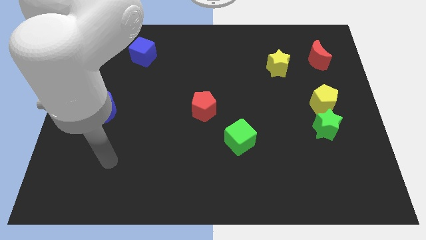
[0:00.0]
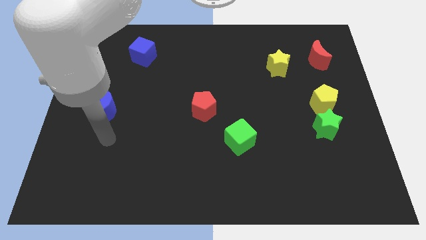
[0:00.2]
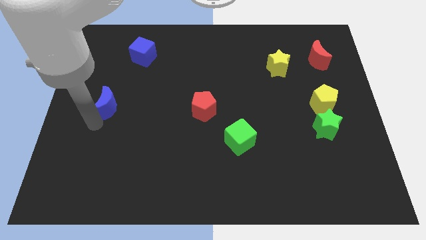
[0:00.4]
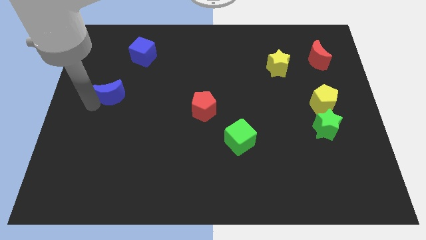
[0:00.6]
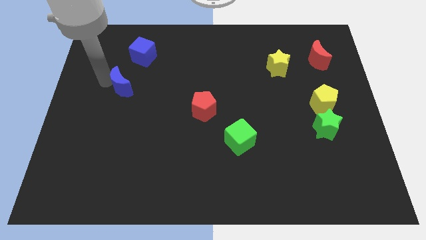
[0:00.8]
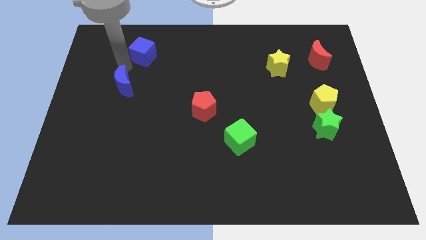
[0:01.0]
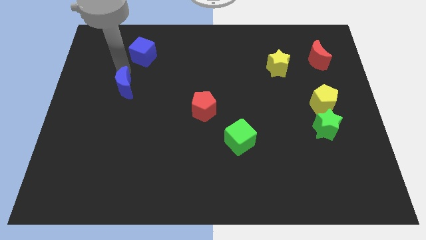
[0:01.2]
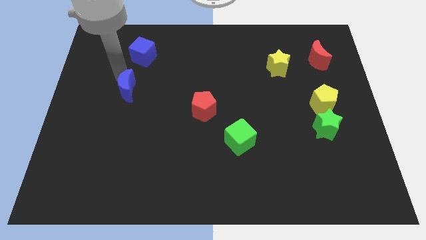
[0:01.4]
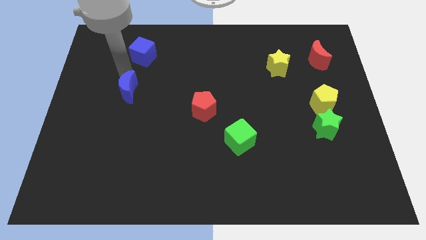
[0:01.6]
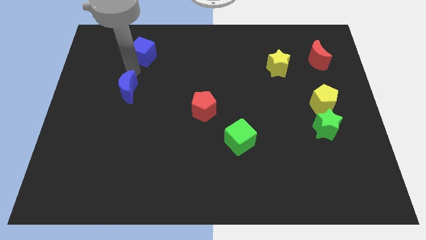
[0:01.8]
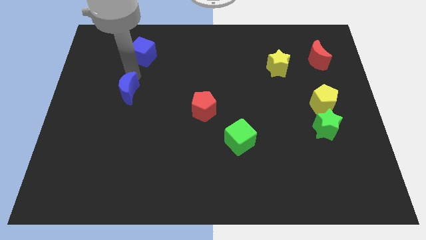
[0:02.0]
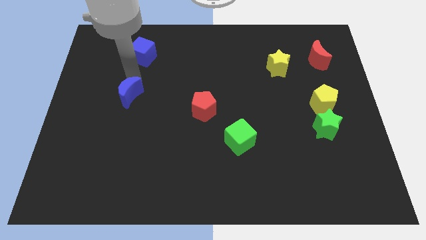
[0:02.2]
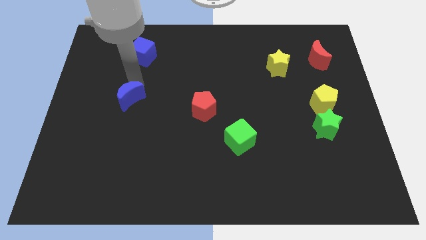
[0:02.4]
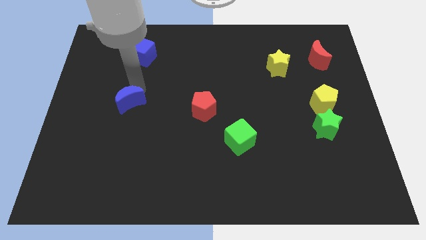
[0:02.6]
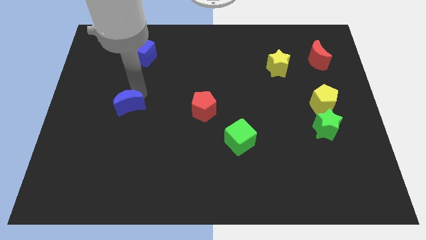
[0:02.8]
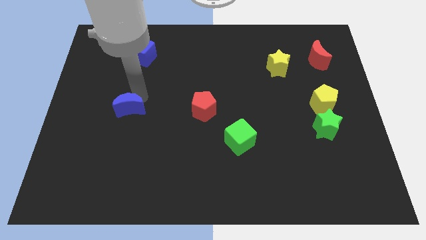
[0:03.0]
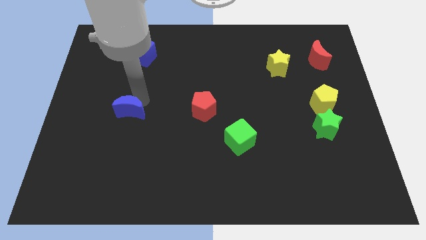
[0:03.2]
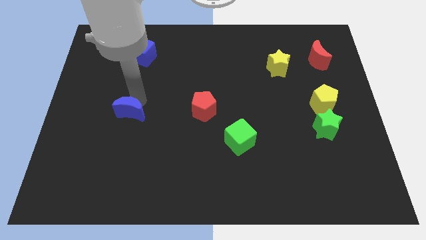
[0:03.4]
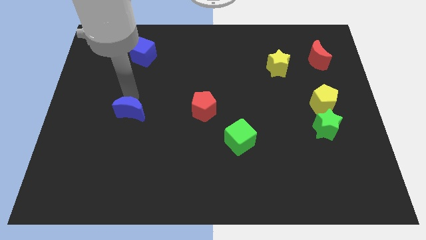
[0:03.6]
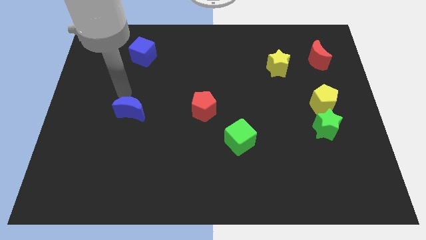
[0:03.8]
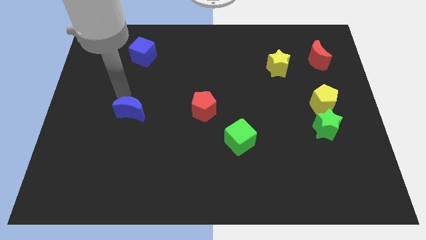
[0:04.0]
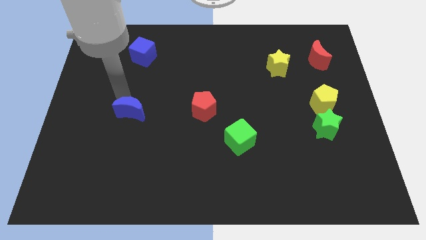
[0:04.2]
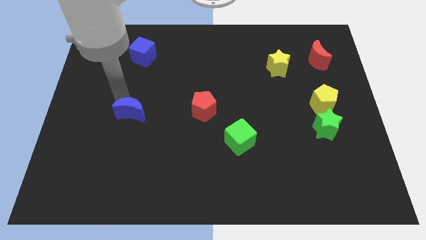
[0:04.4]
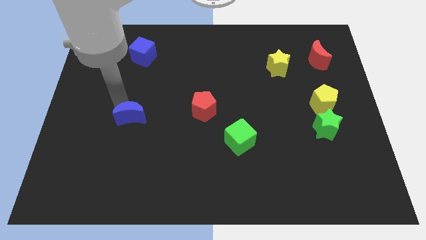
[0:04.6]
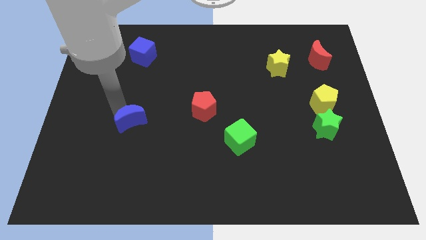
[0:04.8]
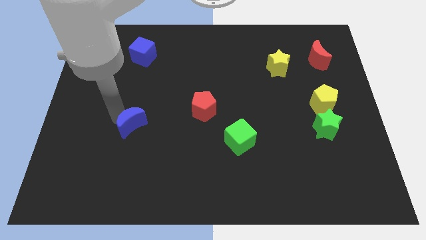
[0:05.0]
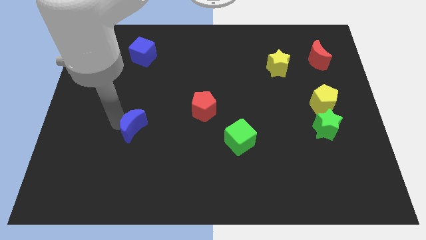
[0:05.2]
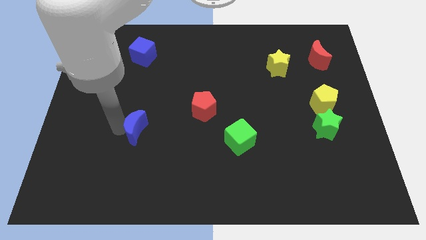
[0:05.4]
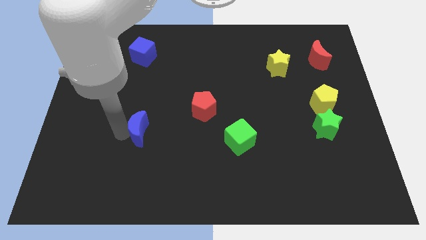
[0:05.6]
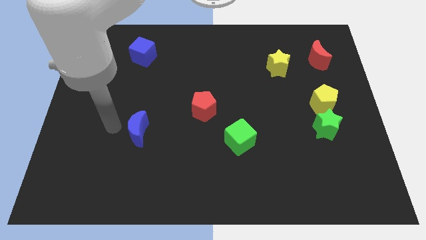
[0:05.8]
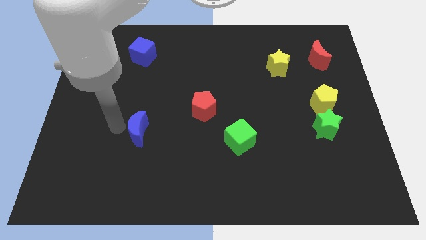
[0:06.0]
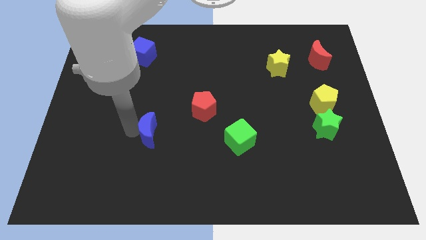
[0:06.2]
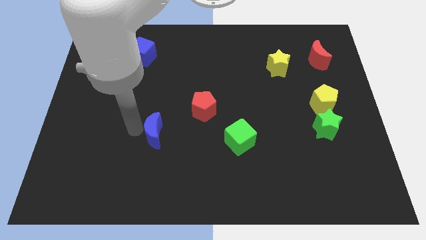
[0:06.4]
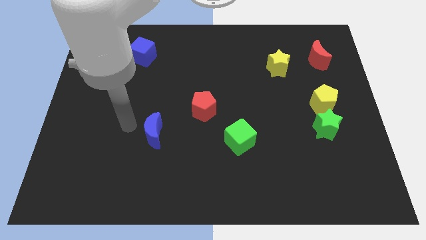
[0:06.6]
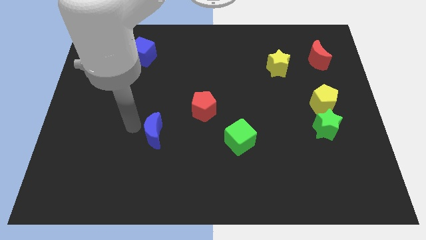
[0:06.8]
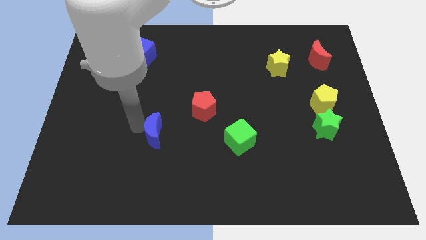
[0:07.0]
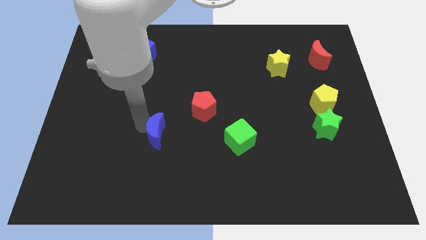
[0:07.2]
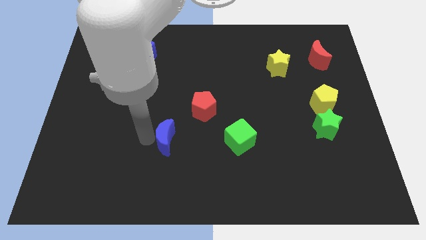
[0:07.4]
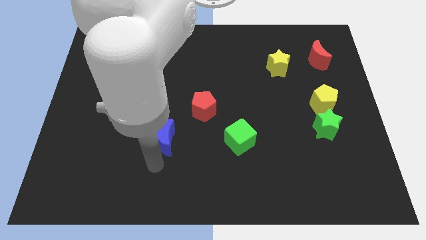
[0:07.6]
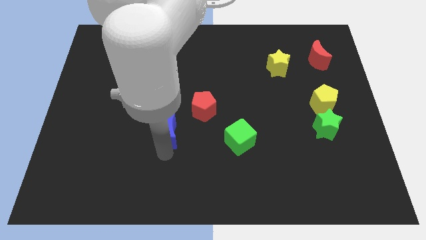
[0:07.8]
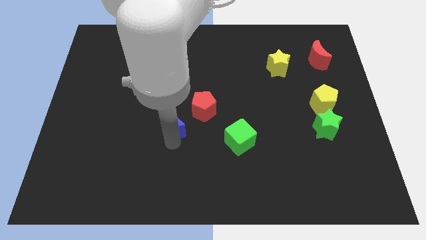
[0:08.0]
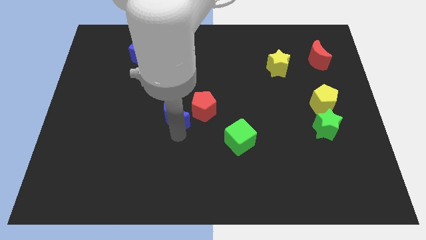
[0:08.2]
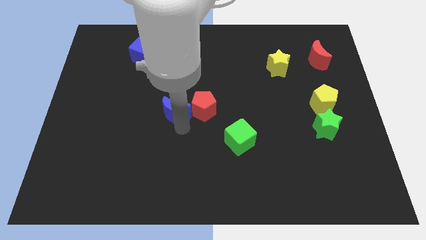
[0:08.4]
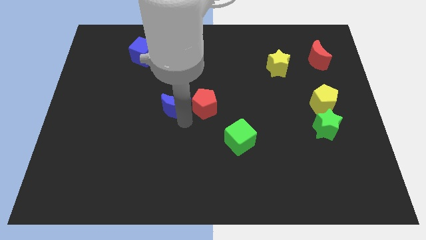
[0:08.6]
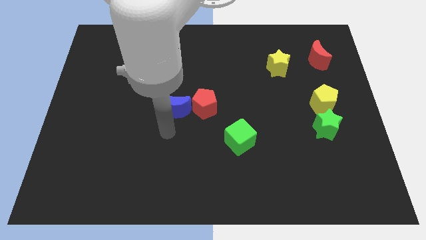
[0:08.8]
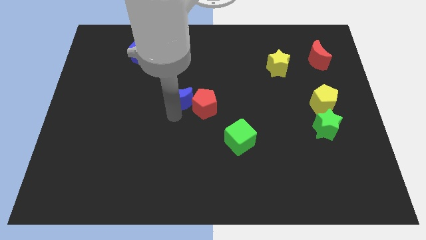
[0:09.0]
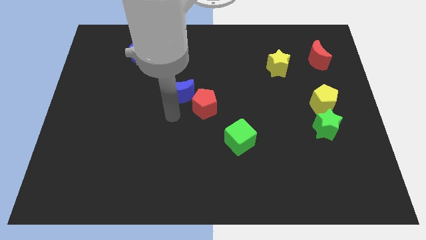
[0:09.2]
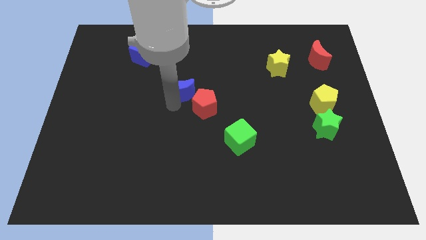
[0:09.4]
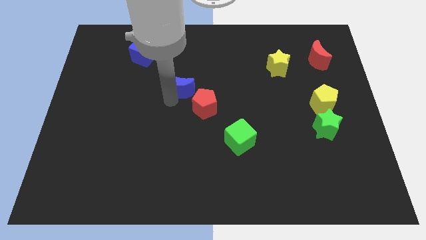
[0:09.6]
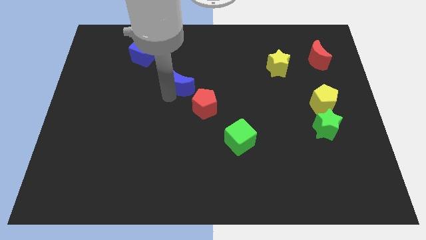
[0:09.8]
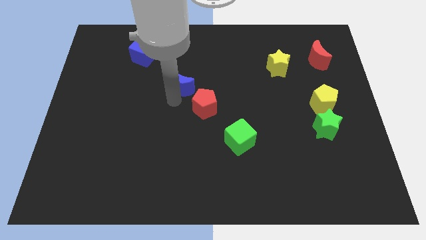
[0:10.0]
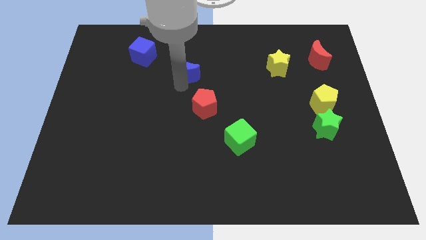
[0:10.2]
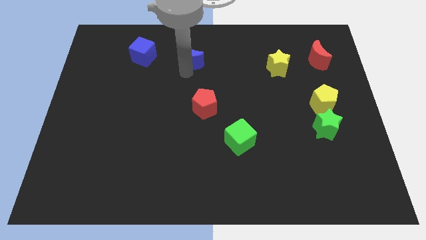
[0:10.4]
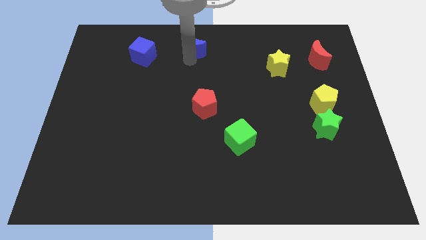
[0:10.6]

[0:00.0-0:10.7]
move the blue moon to the top side
